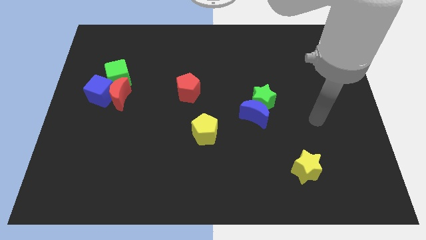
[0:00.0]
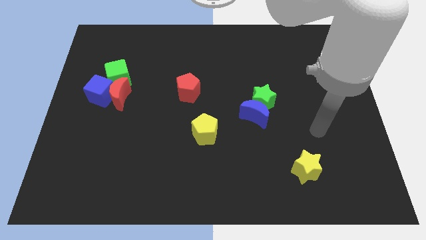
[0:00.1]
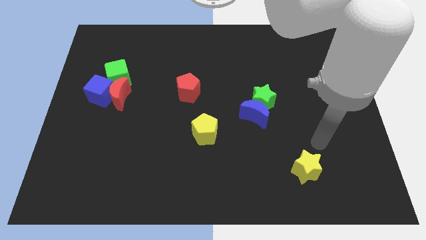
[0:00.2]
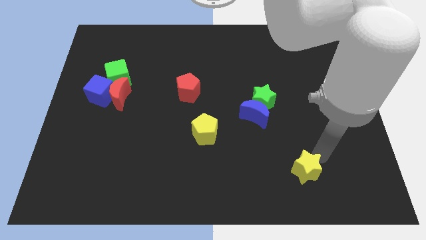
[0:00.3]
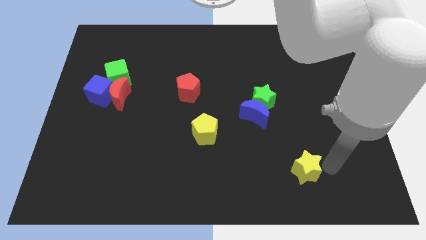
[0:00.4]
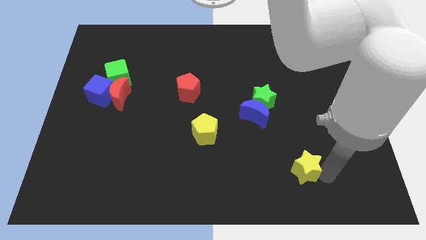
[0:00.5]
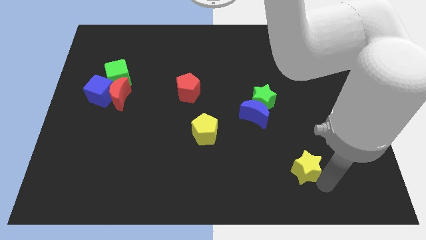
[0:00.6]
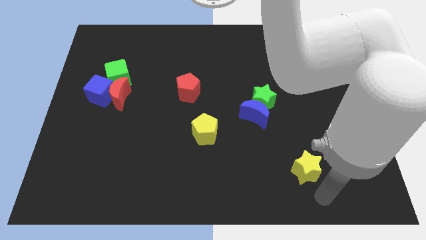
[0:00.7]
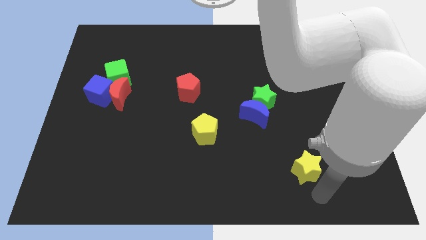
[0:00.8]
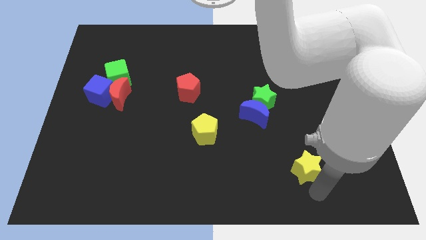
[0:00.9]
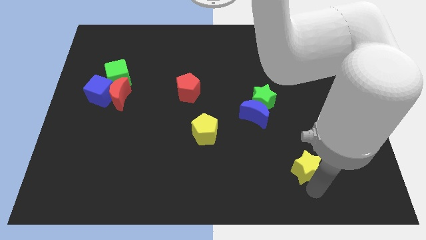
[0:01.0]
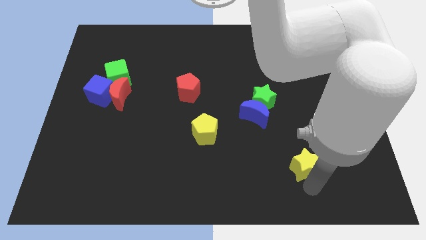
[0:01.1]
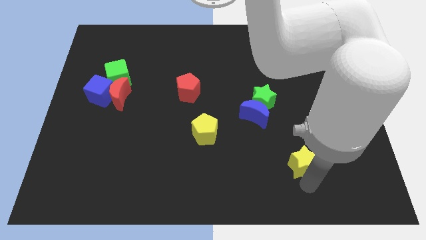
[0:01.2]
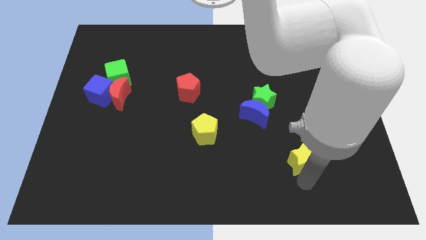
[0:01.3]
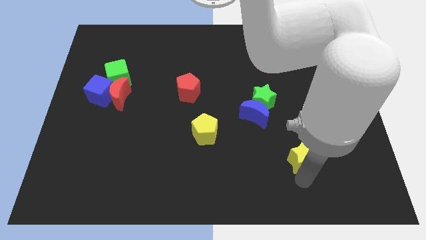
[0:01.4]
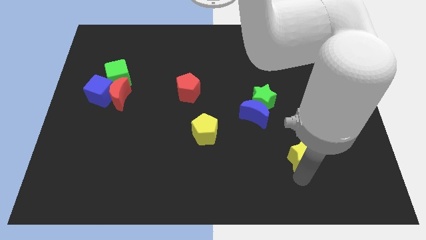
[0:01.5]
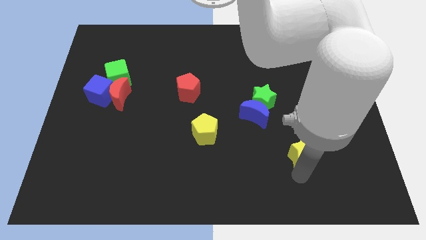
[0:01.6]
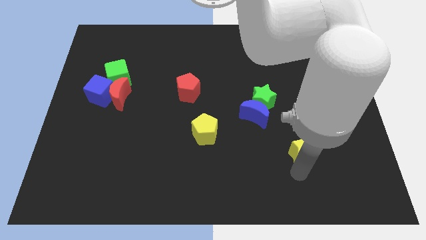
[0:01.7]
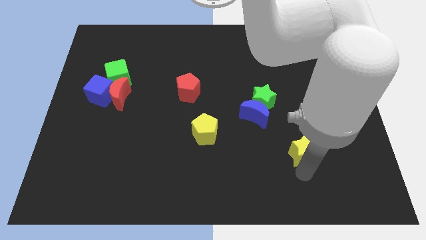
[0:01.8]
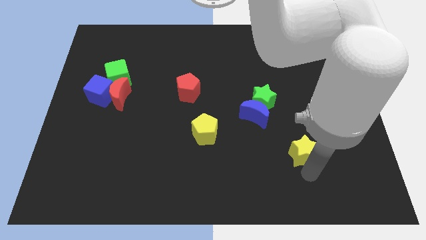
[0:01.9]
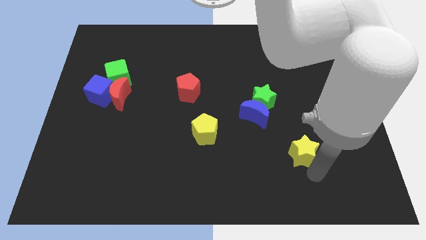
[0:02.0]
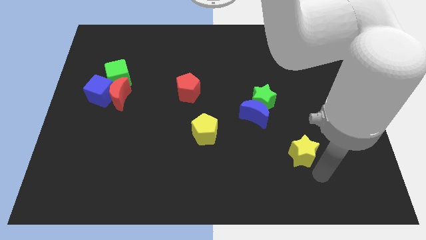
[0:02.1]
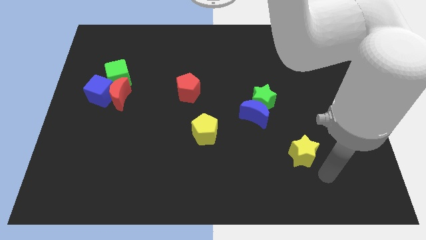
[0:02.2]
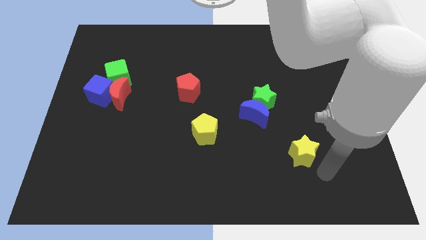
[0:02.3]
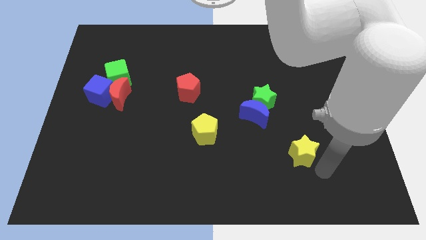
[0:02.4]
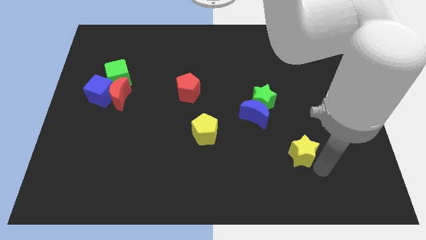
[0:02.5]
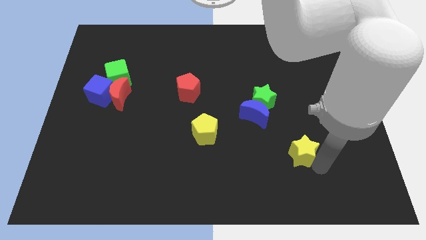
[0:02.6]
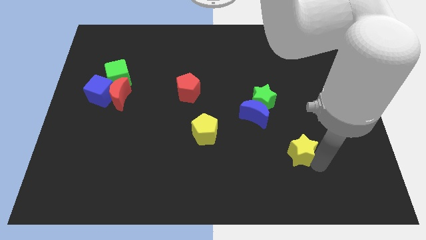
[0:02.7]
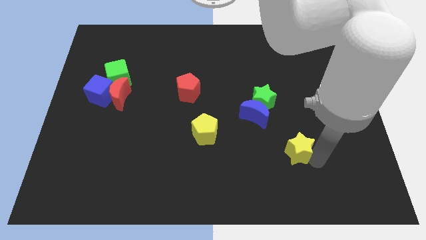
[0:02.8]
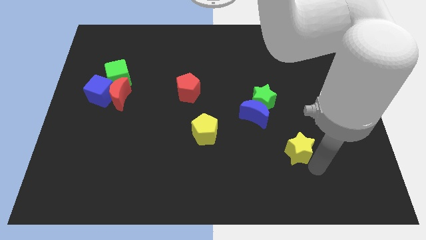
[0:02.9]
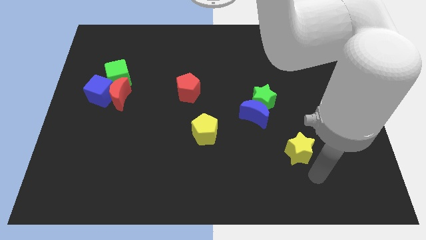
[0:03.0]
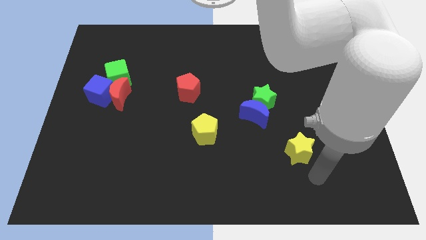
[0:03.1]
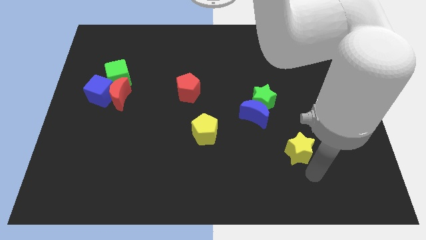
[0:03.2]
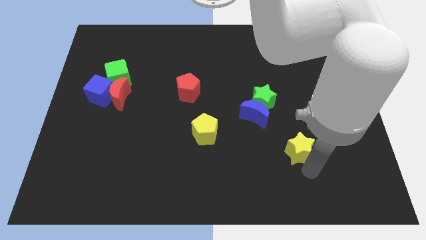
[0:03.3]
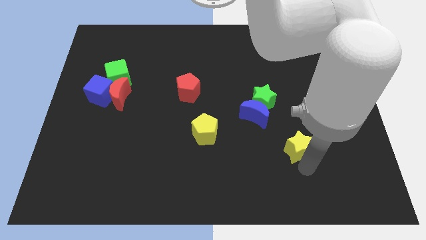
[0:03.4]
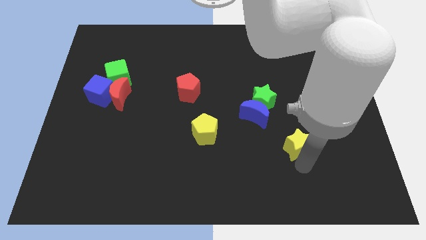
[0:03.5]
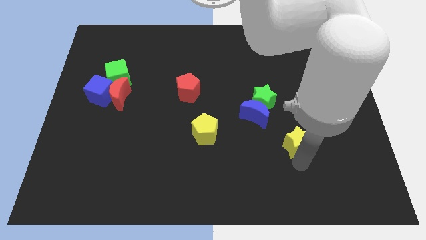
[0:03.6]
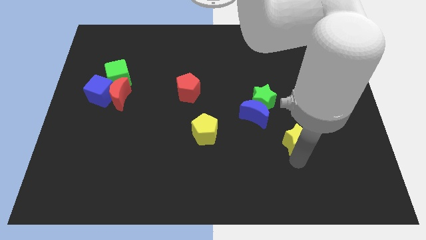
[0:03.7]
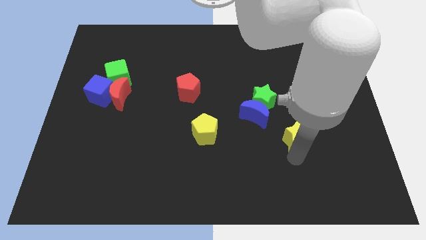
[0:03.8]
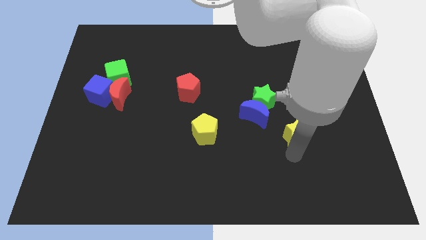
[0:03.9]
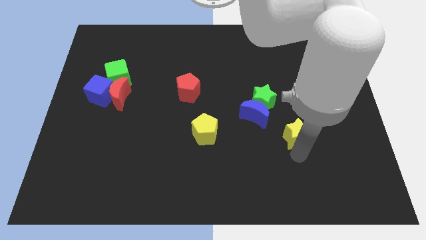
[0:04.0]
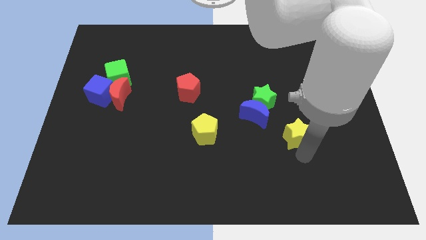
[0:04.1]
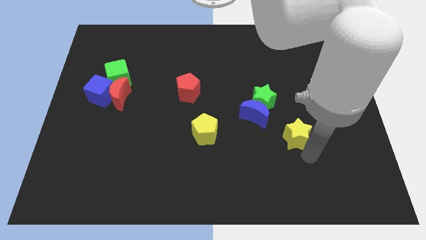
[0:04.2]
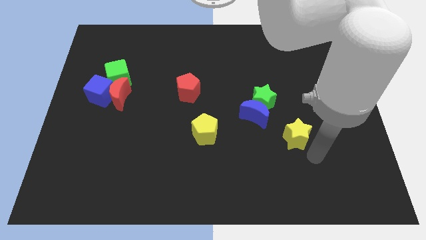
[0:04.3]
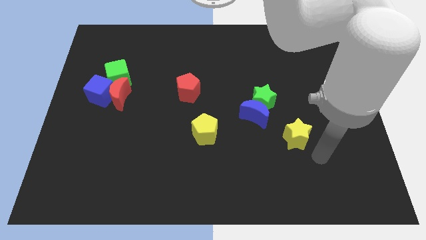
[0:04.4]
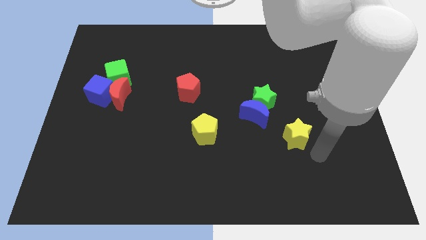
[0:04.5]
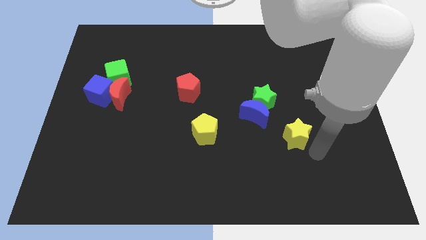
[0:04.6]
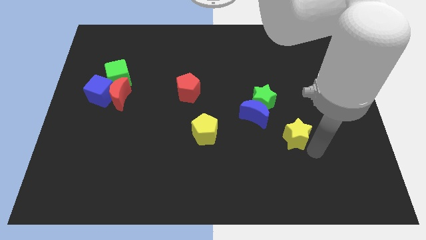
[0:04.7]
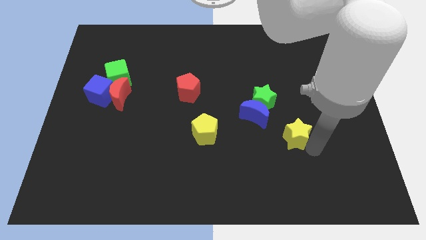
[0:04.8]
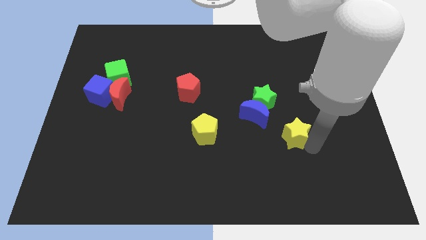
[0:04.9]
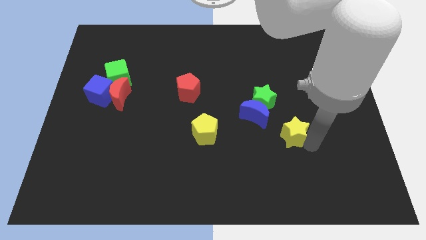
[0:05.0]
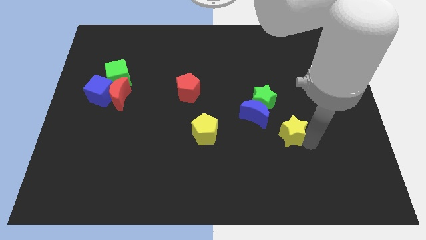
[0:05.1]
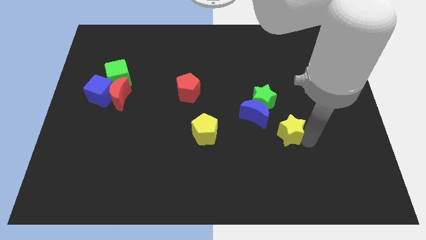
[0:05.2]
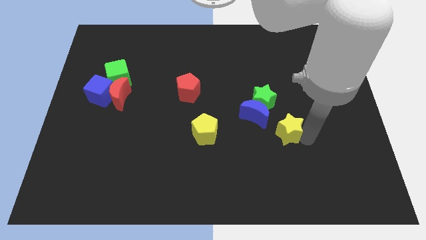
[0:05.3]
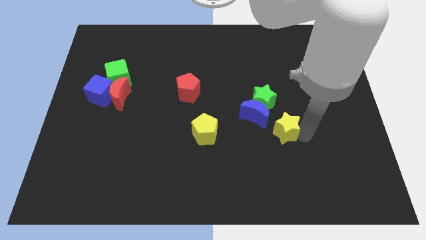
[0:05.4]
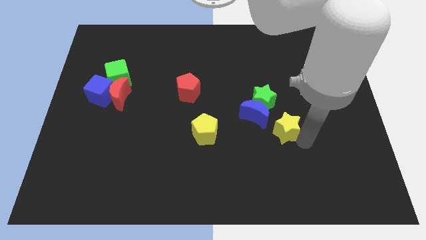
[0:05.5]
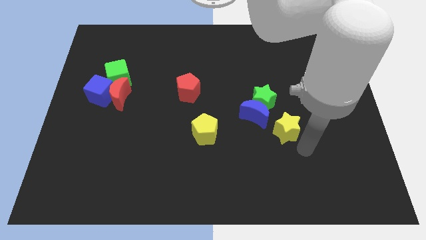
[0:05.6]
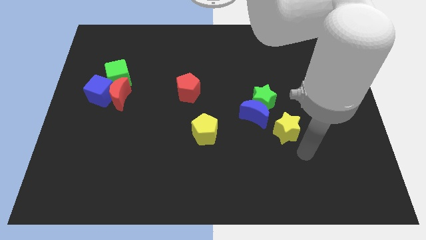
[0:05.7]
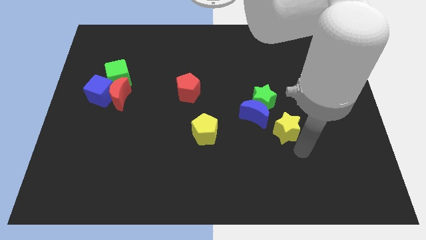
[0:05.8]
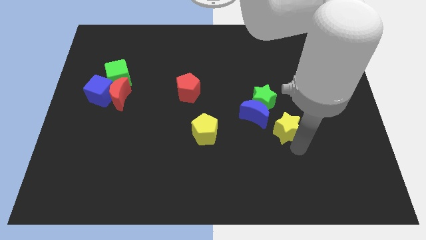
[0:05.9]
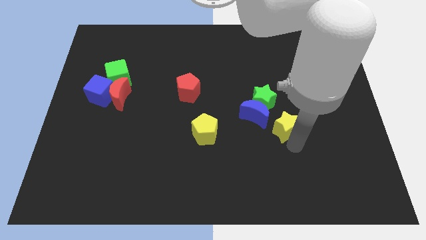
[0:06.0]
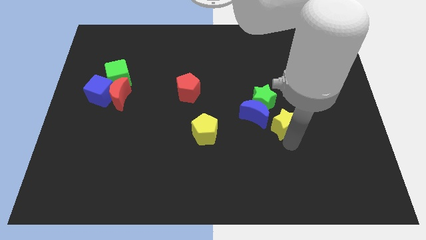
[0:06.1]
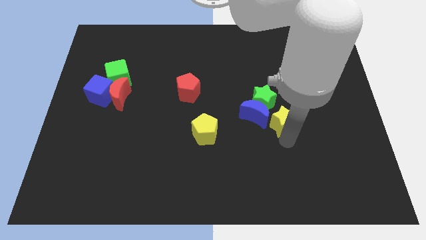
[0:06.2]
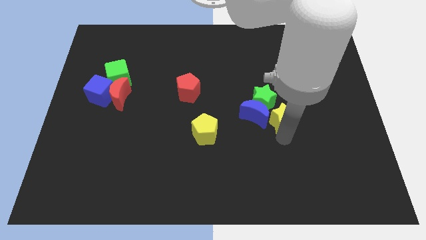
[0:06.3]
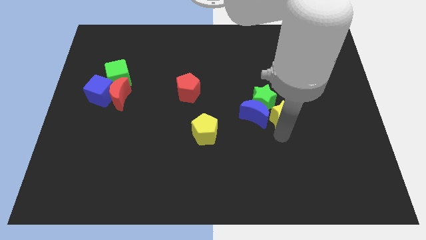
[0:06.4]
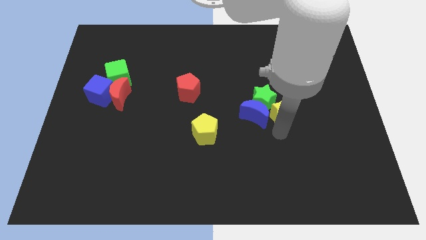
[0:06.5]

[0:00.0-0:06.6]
move the yellow star next to the green star
